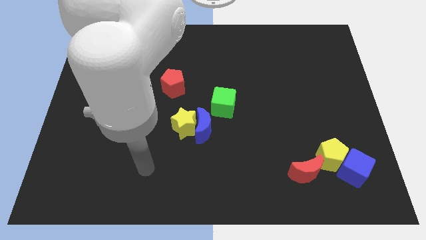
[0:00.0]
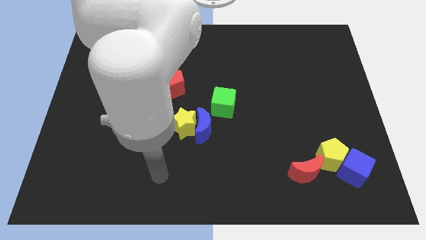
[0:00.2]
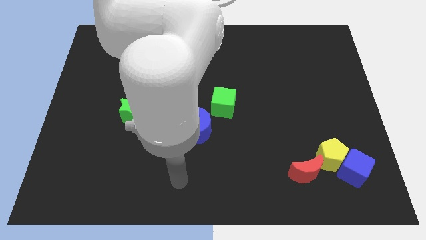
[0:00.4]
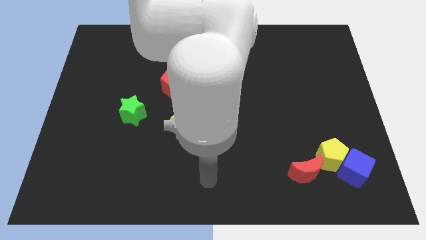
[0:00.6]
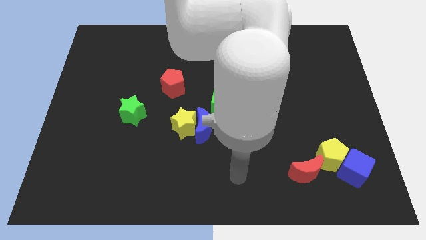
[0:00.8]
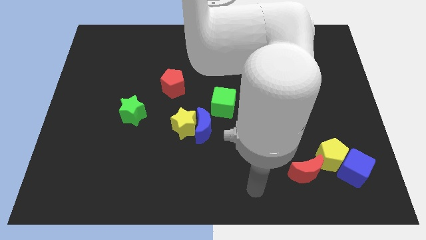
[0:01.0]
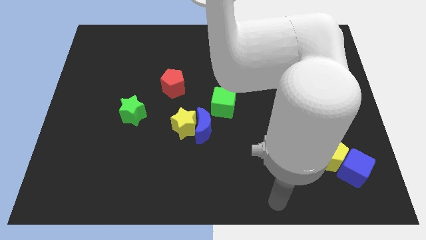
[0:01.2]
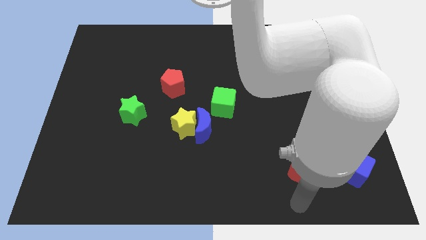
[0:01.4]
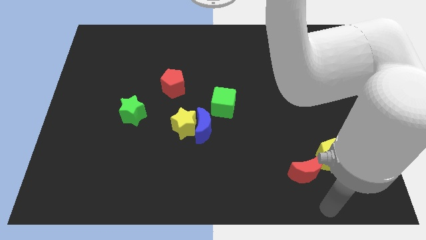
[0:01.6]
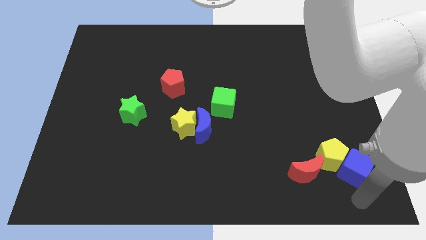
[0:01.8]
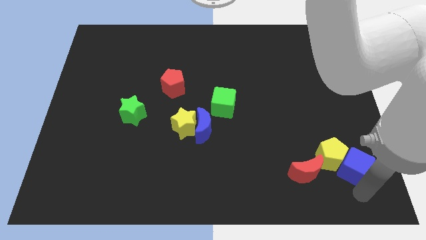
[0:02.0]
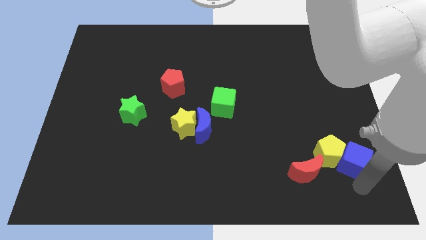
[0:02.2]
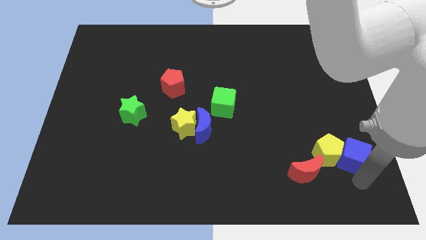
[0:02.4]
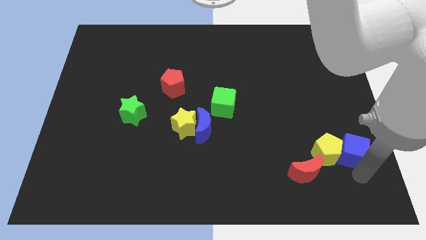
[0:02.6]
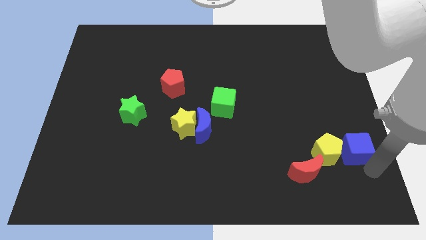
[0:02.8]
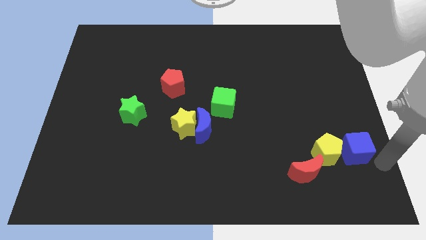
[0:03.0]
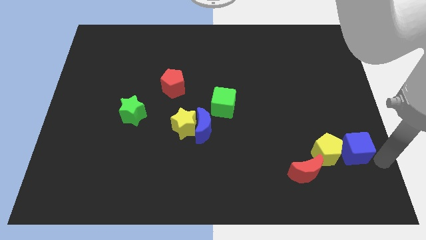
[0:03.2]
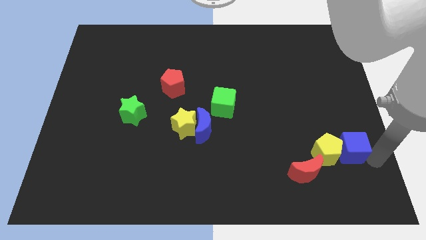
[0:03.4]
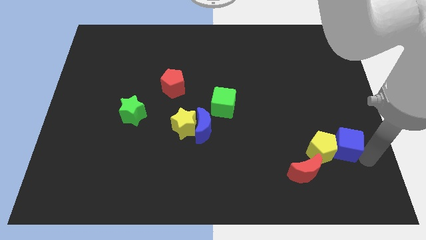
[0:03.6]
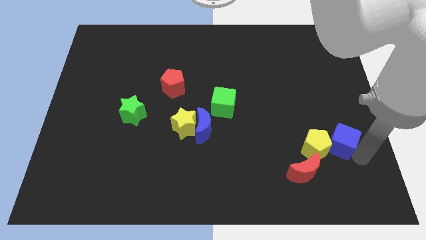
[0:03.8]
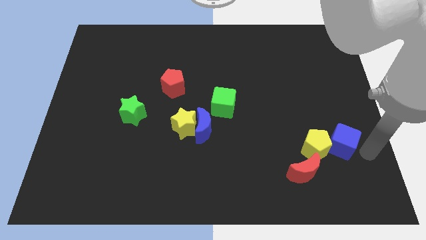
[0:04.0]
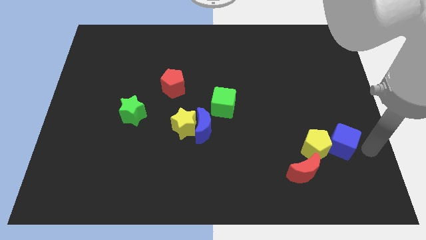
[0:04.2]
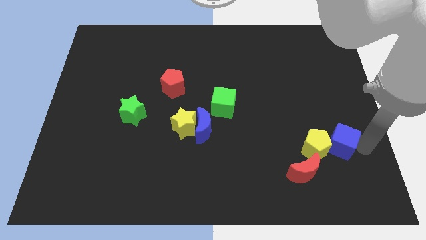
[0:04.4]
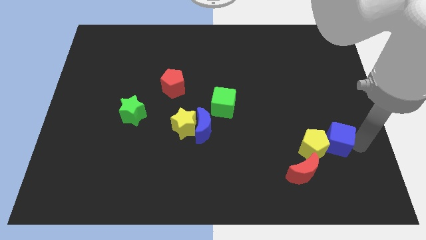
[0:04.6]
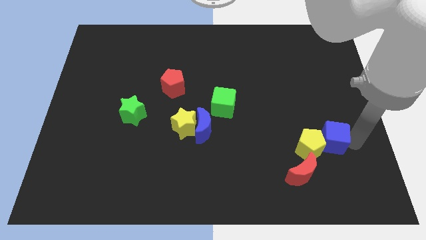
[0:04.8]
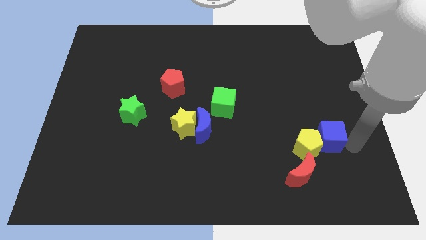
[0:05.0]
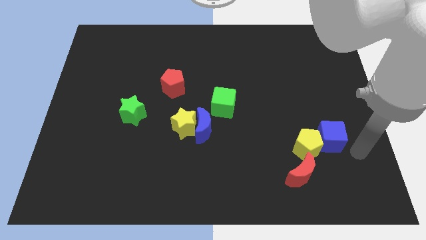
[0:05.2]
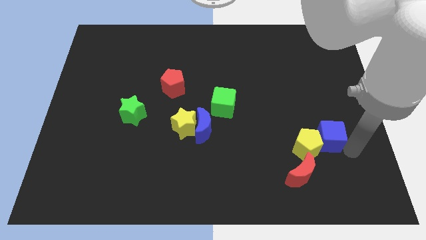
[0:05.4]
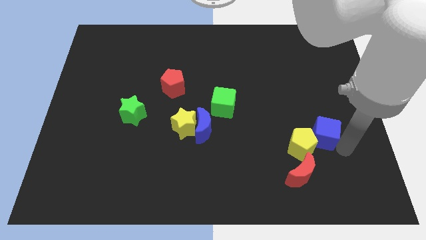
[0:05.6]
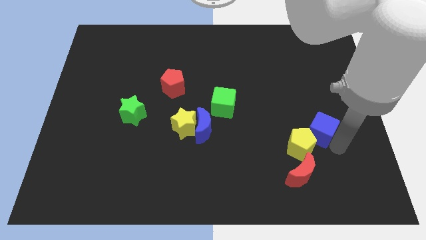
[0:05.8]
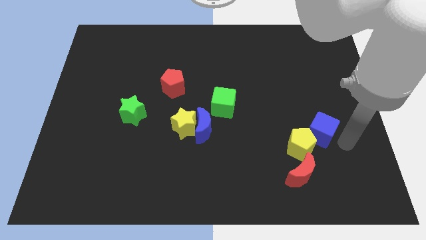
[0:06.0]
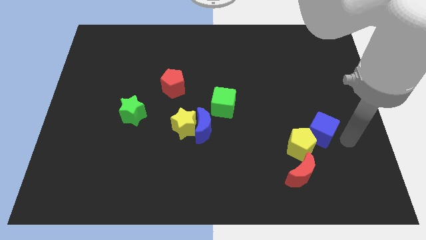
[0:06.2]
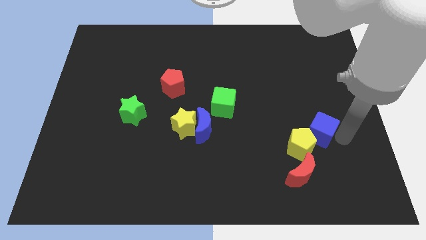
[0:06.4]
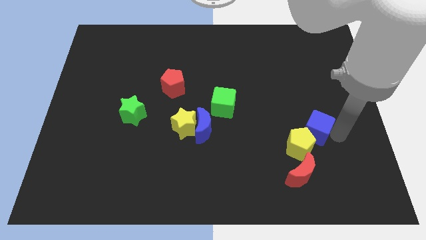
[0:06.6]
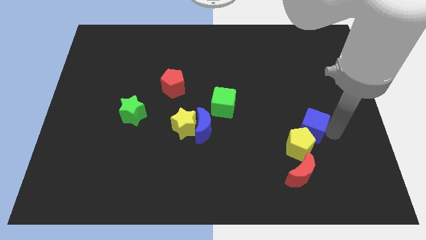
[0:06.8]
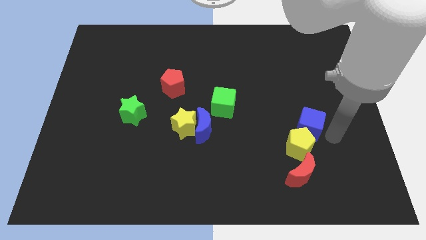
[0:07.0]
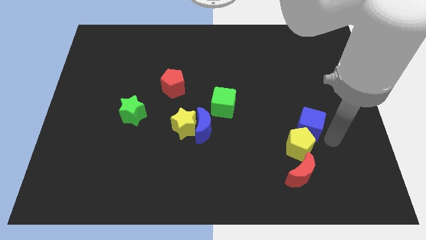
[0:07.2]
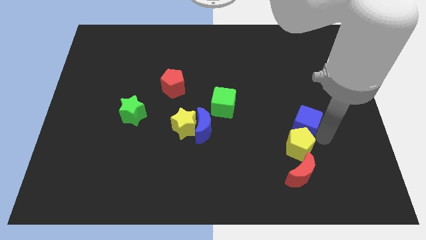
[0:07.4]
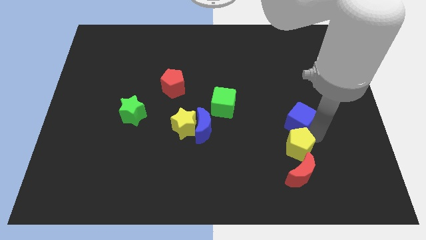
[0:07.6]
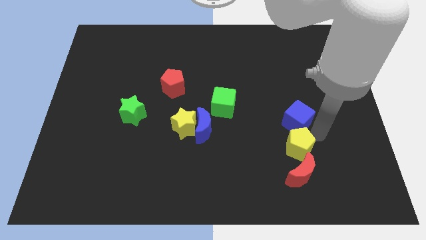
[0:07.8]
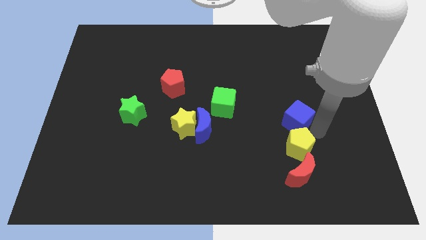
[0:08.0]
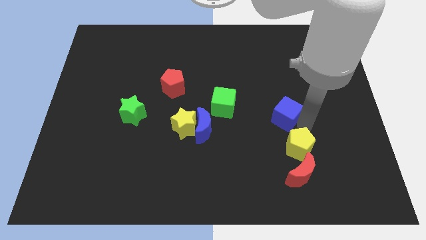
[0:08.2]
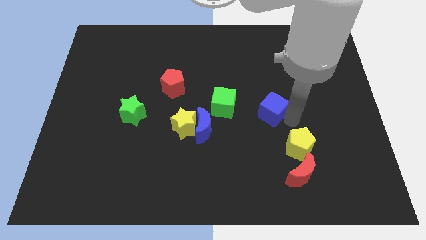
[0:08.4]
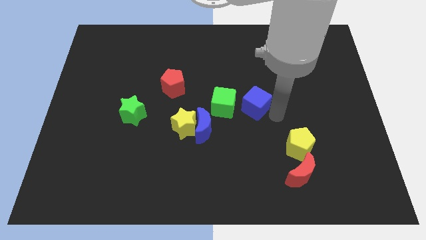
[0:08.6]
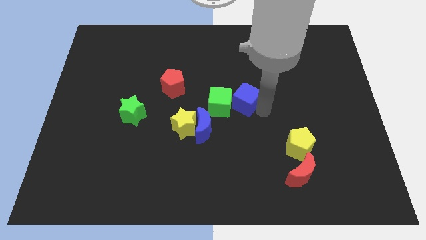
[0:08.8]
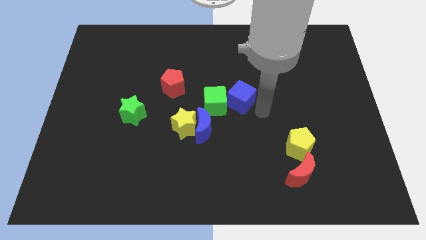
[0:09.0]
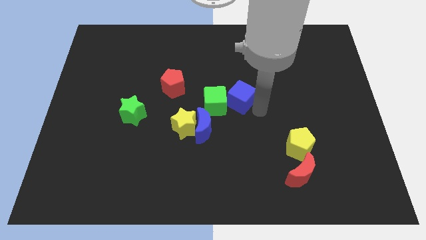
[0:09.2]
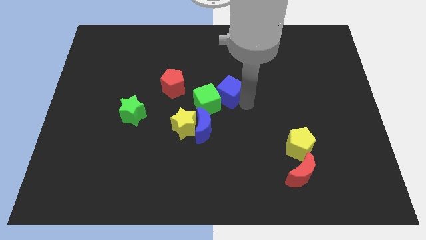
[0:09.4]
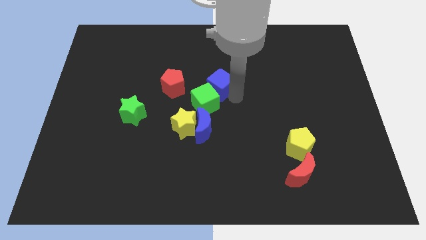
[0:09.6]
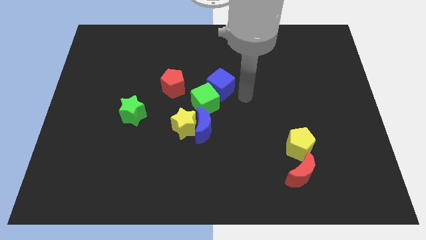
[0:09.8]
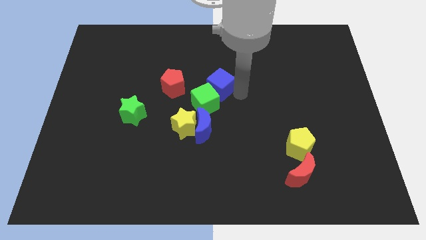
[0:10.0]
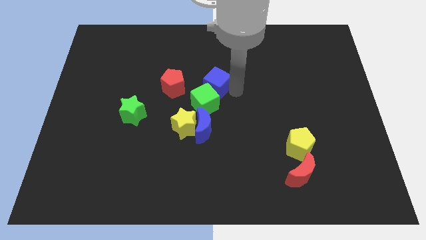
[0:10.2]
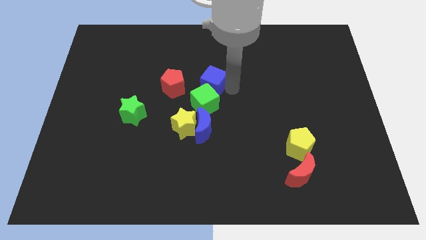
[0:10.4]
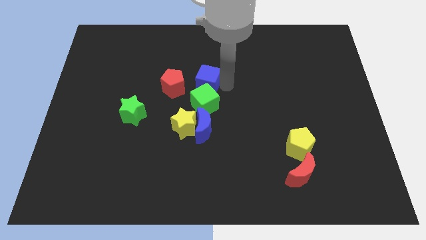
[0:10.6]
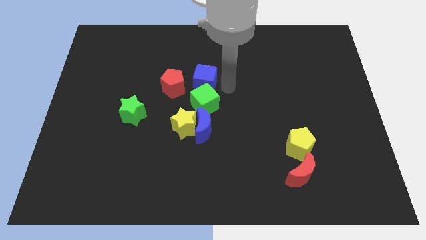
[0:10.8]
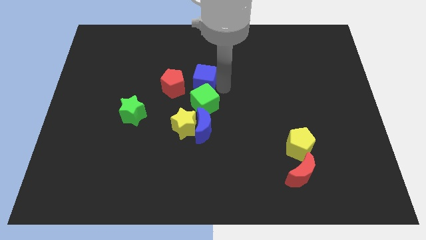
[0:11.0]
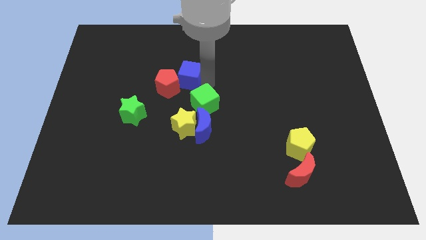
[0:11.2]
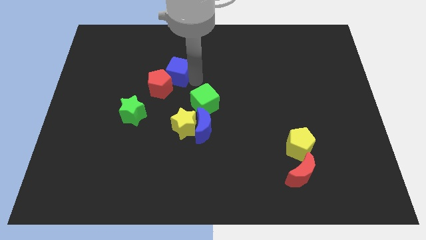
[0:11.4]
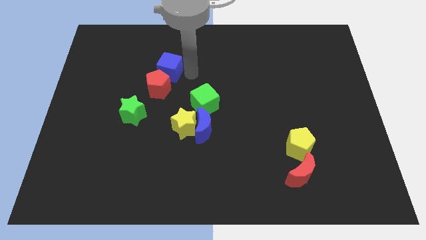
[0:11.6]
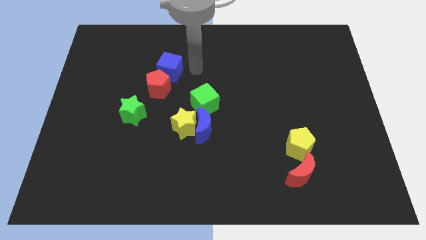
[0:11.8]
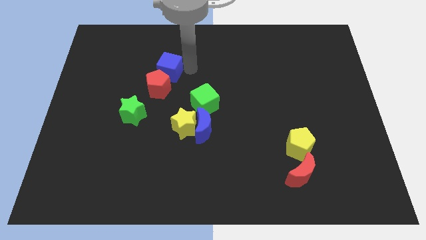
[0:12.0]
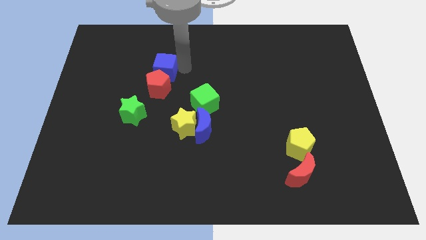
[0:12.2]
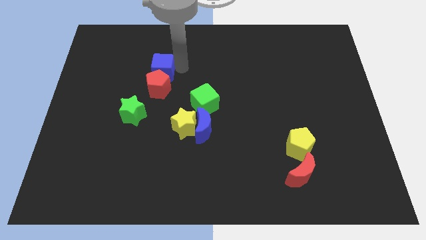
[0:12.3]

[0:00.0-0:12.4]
put the blue cube diagonally up and to the left of the red pentagon
